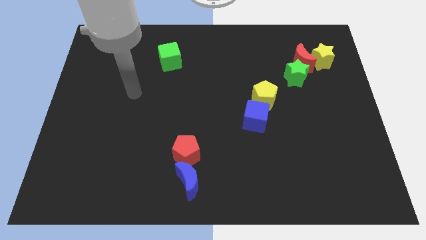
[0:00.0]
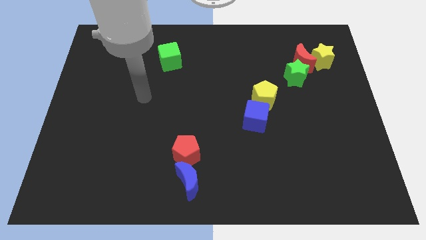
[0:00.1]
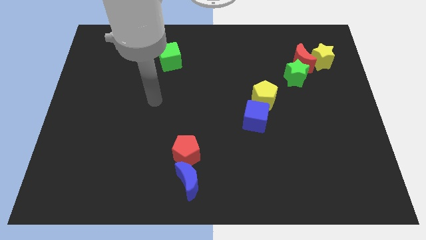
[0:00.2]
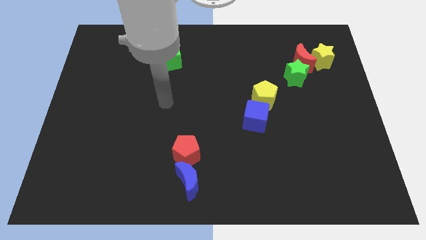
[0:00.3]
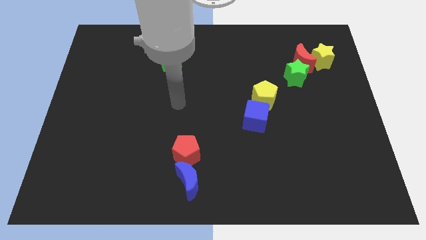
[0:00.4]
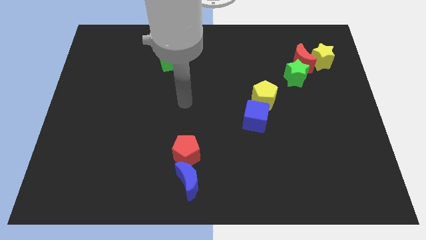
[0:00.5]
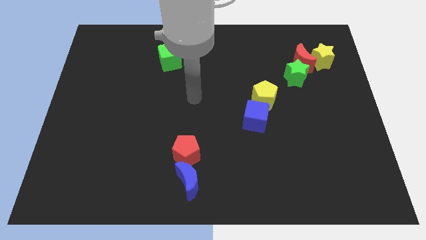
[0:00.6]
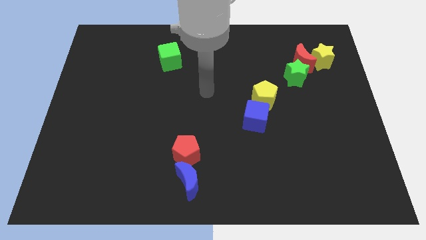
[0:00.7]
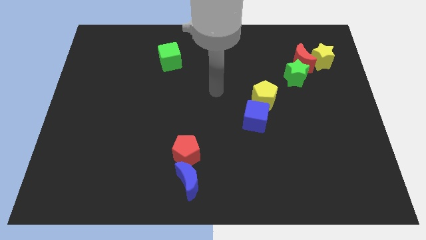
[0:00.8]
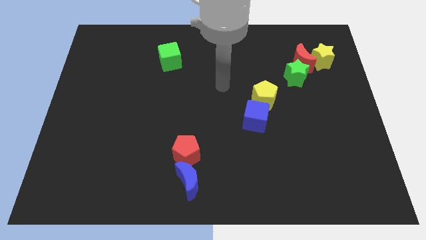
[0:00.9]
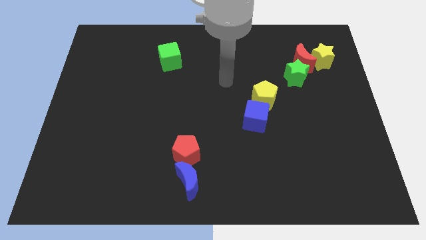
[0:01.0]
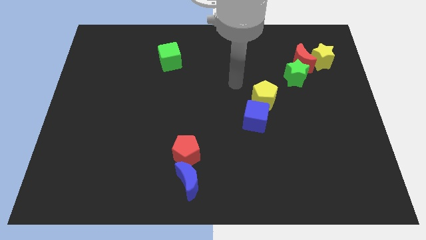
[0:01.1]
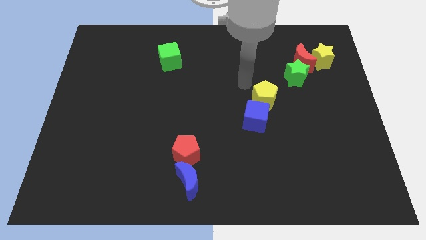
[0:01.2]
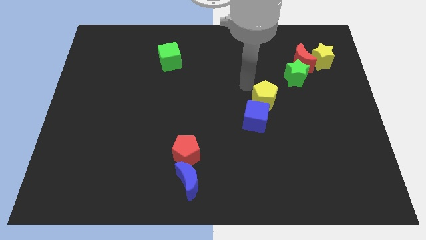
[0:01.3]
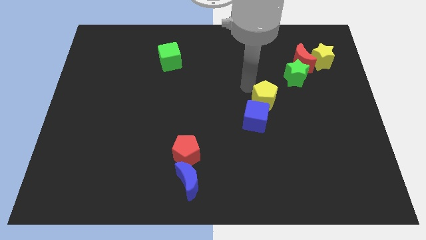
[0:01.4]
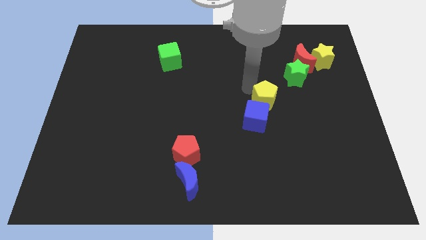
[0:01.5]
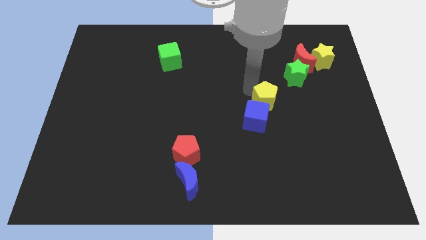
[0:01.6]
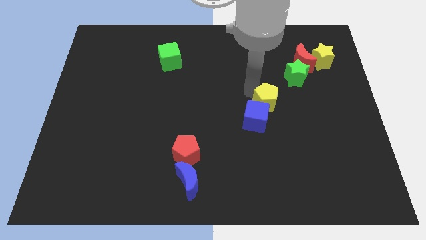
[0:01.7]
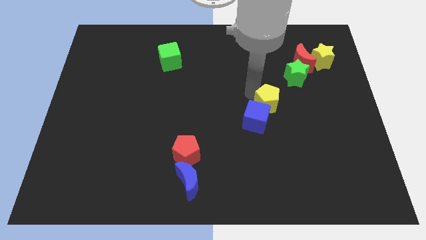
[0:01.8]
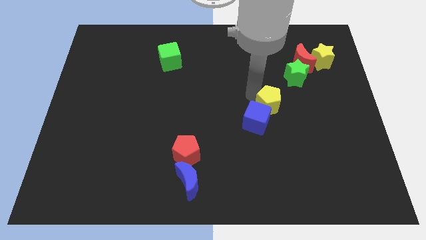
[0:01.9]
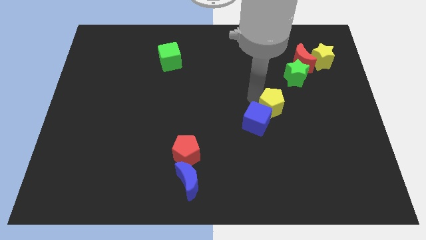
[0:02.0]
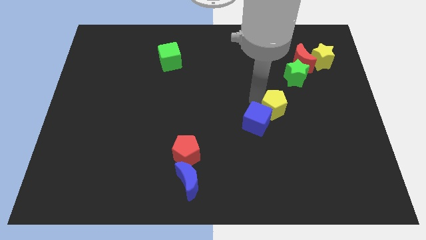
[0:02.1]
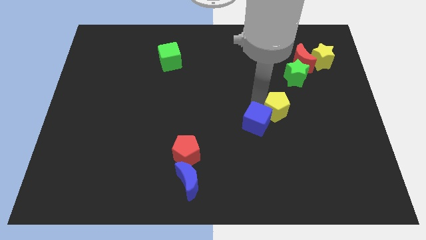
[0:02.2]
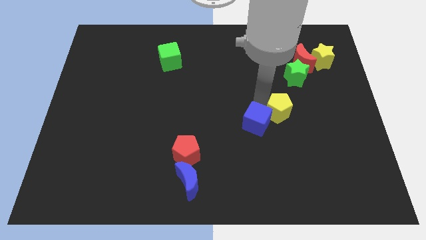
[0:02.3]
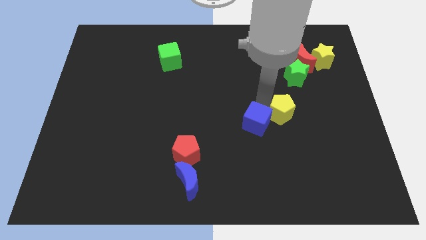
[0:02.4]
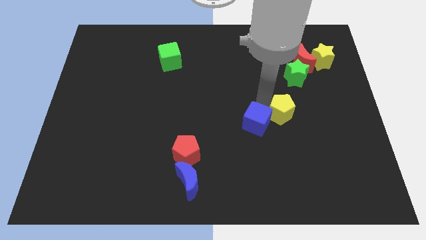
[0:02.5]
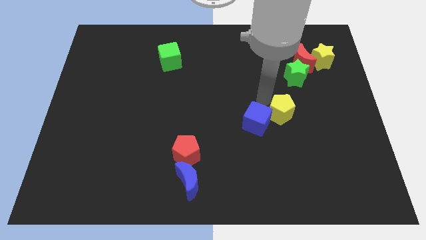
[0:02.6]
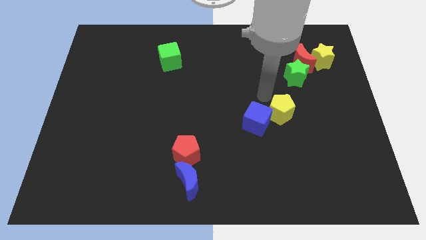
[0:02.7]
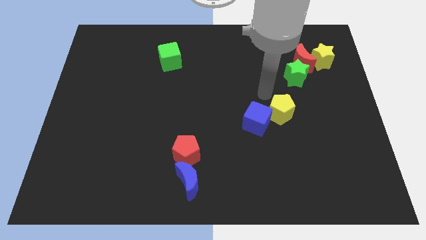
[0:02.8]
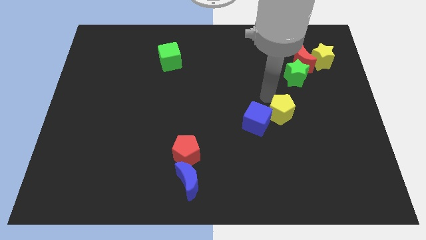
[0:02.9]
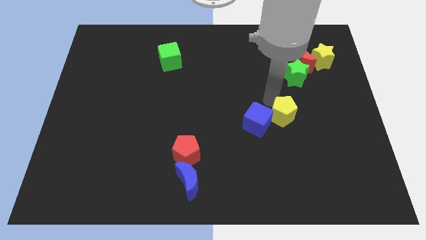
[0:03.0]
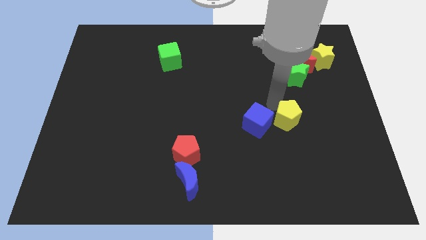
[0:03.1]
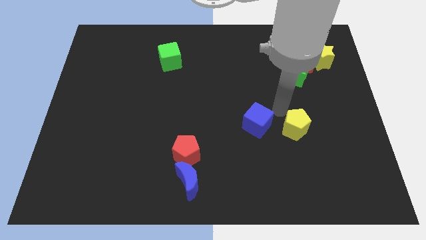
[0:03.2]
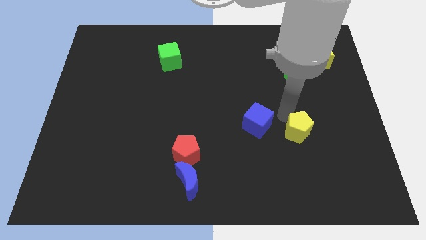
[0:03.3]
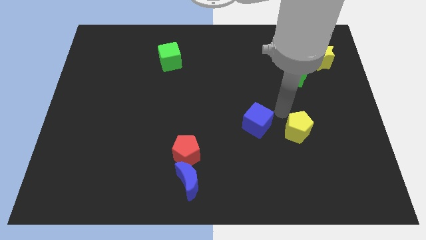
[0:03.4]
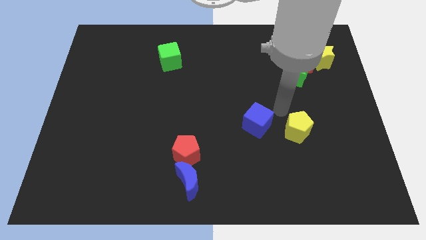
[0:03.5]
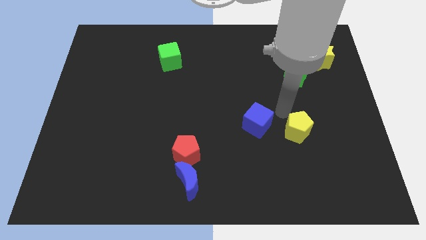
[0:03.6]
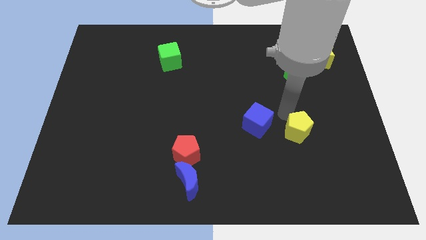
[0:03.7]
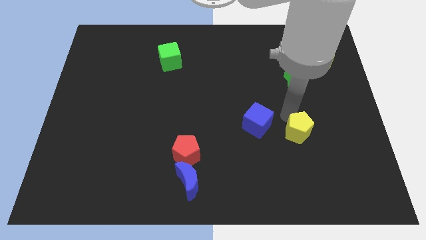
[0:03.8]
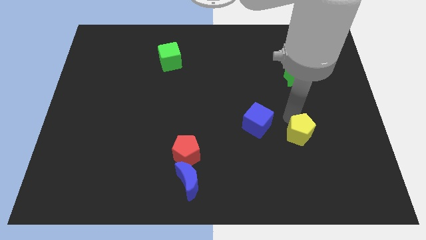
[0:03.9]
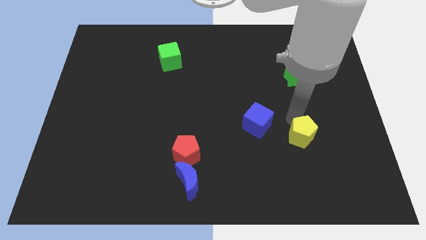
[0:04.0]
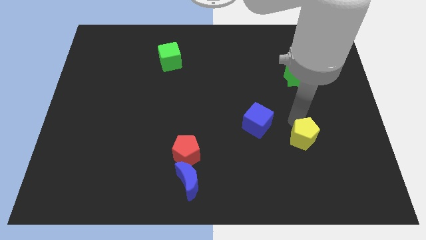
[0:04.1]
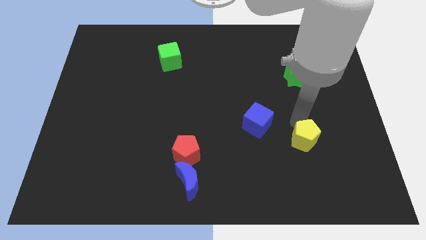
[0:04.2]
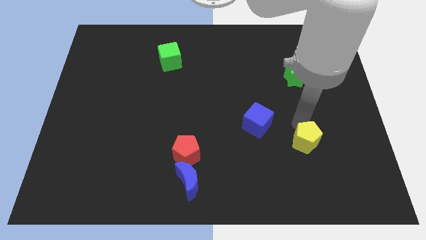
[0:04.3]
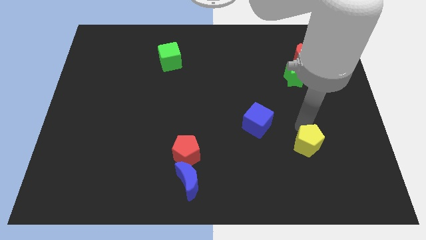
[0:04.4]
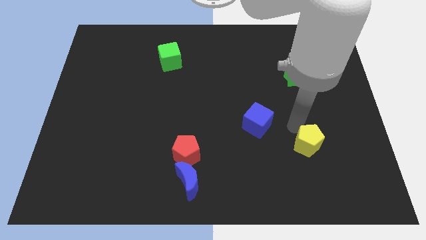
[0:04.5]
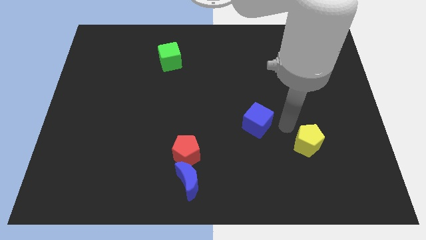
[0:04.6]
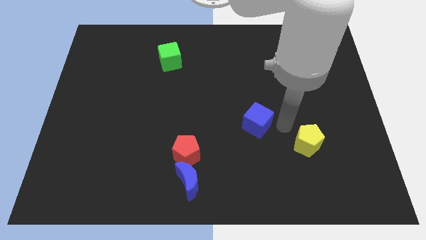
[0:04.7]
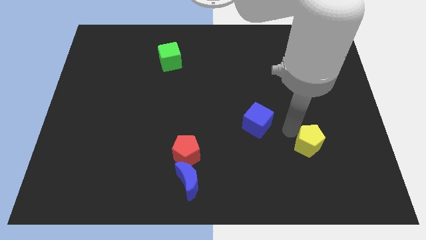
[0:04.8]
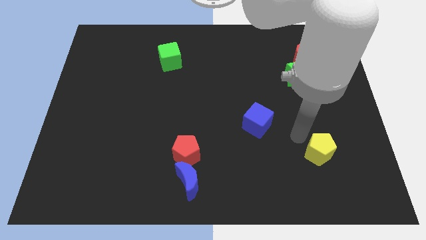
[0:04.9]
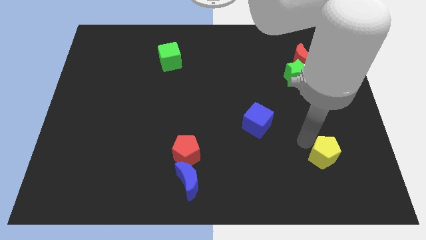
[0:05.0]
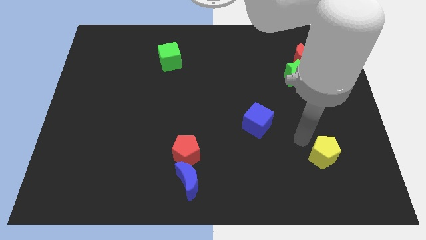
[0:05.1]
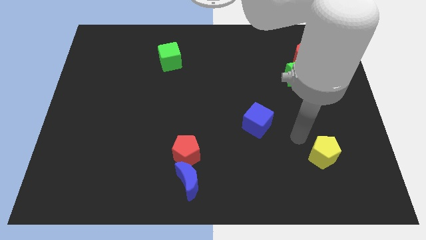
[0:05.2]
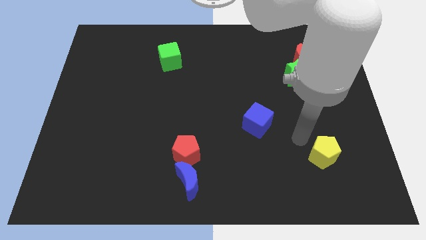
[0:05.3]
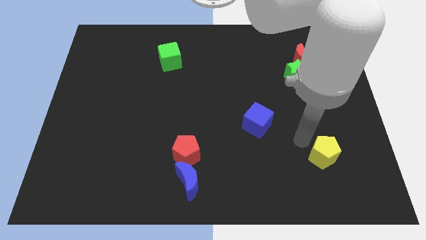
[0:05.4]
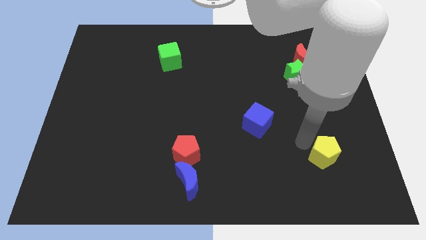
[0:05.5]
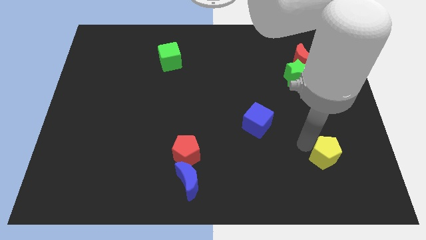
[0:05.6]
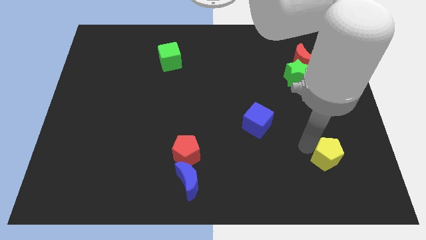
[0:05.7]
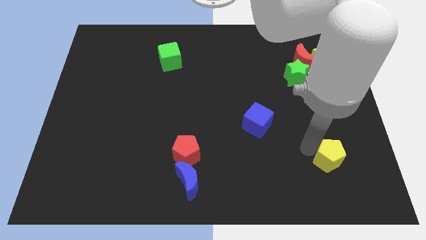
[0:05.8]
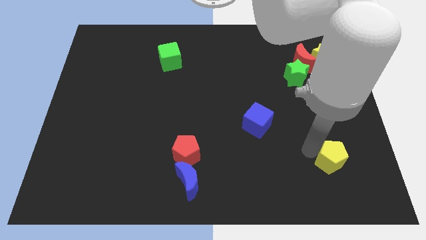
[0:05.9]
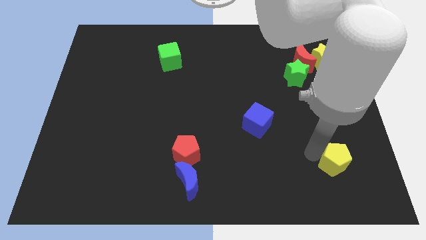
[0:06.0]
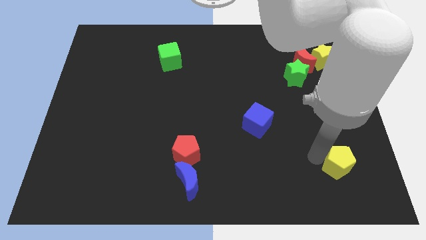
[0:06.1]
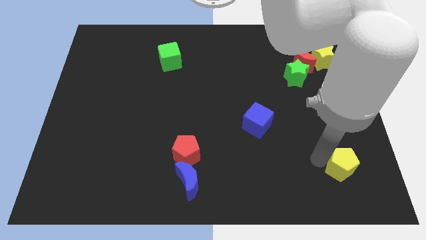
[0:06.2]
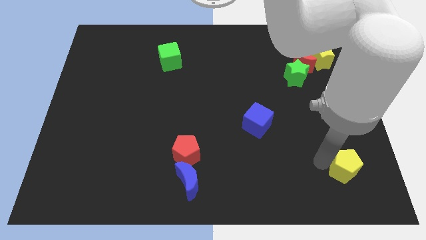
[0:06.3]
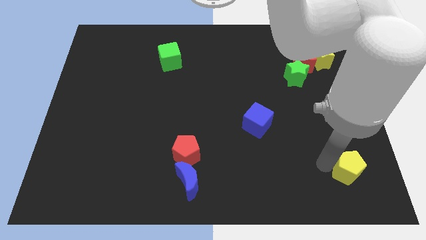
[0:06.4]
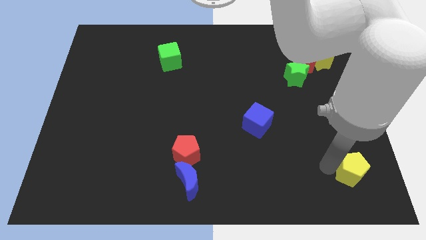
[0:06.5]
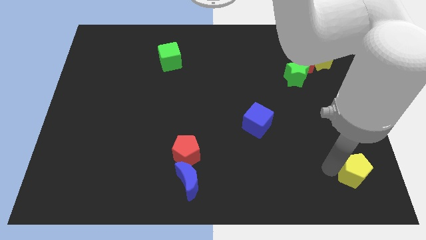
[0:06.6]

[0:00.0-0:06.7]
put the yellow pentagon to the bottom right corner

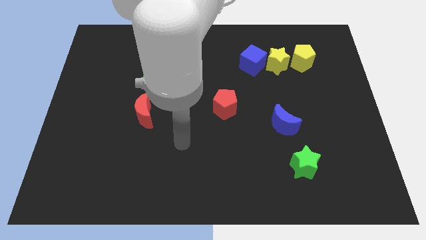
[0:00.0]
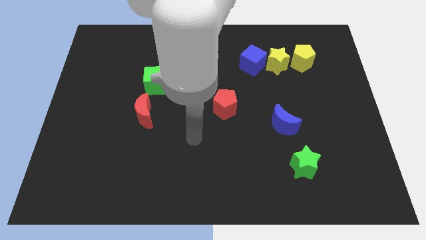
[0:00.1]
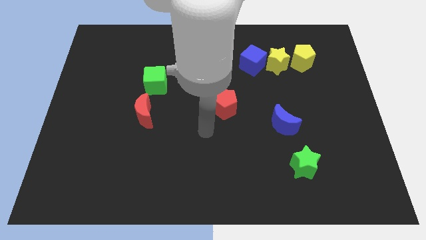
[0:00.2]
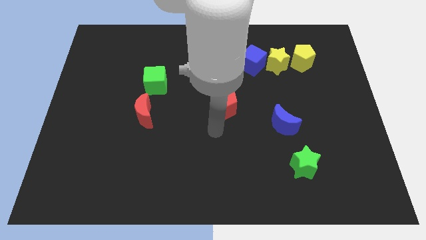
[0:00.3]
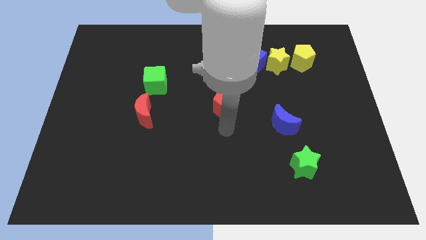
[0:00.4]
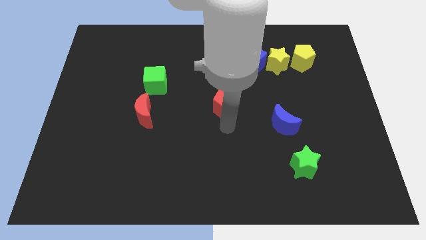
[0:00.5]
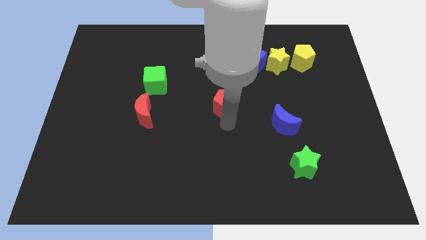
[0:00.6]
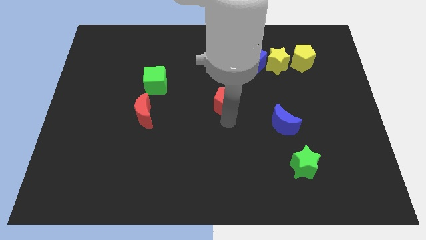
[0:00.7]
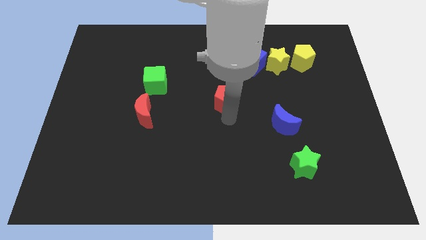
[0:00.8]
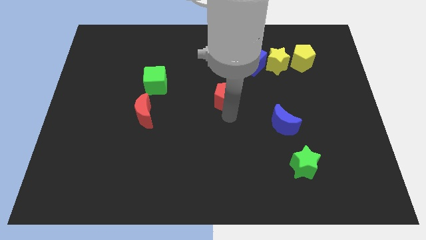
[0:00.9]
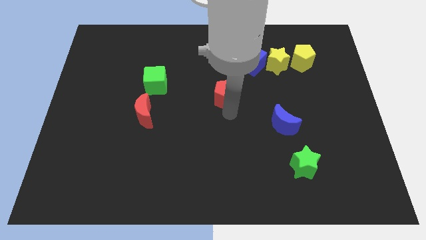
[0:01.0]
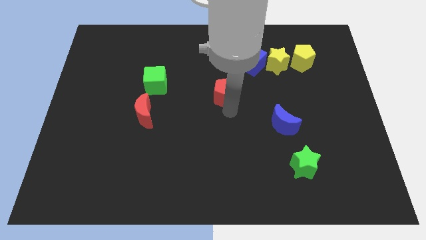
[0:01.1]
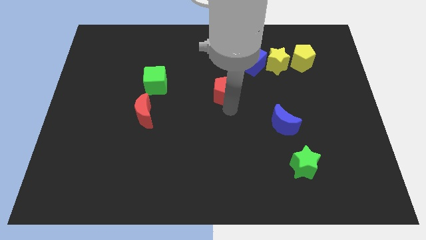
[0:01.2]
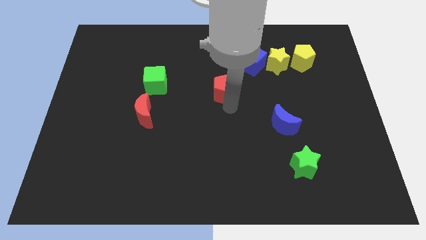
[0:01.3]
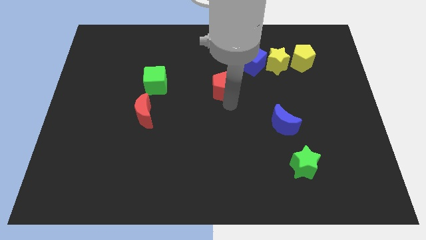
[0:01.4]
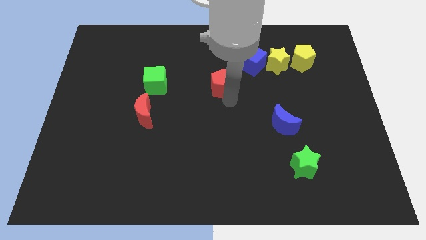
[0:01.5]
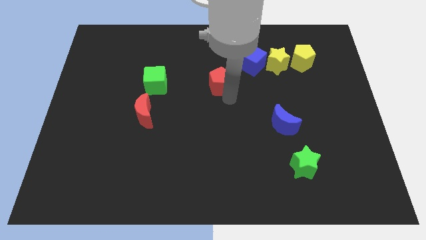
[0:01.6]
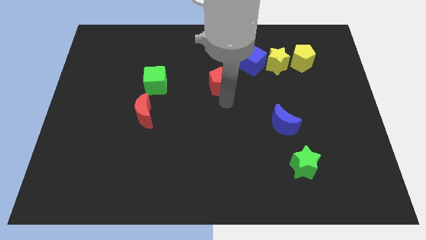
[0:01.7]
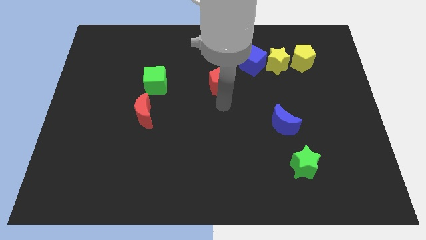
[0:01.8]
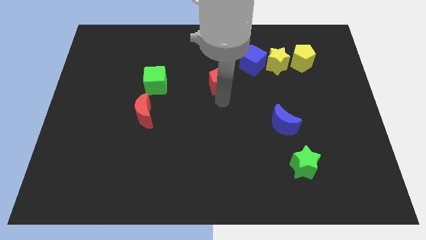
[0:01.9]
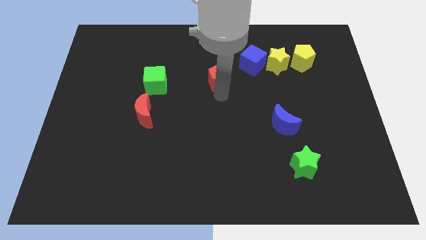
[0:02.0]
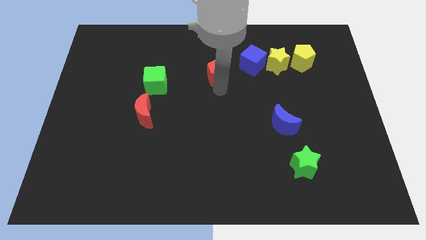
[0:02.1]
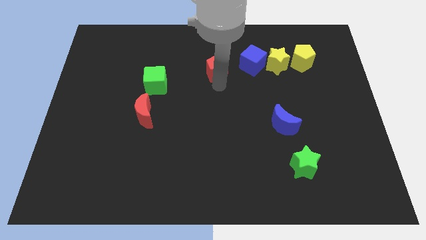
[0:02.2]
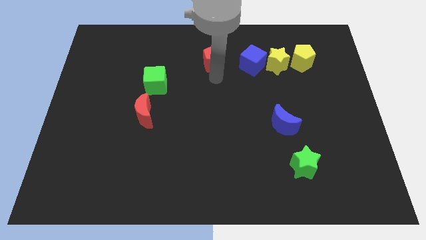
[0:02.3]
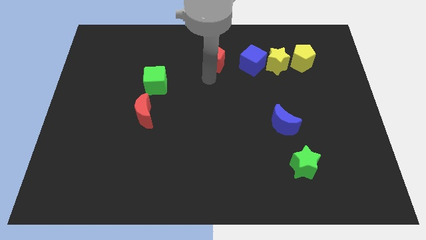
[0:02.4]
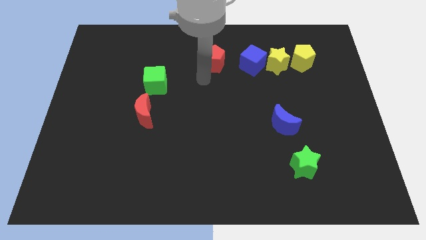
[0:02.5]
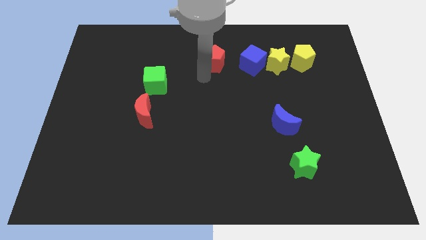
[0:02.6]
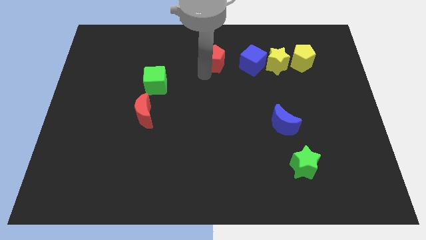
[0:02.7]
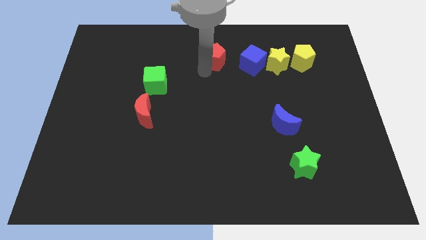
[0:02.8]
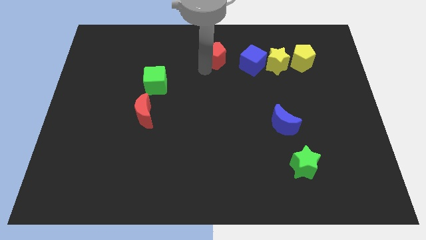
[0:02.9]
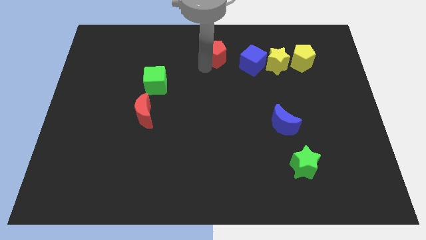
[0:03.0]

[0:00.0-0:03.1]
slide the red pentagon to the towards your base
